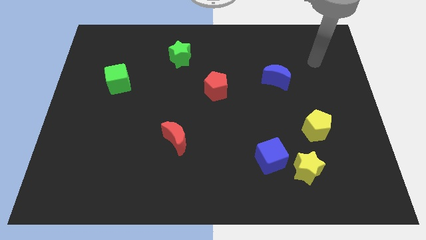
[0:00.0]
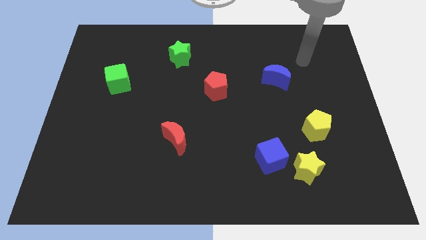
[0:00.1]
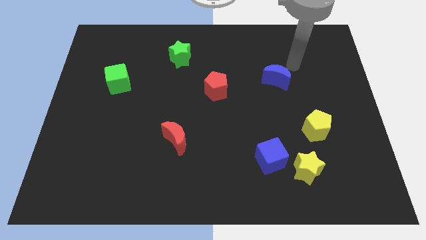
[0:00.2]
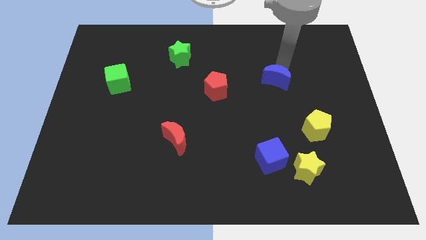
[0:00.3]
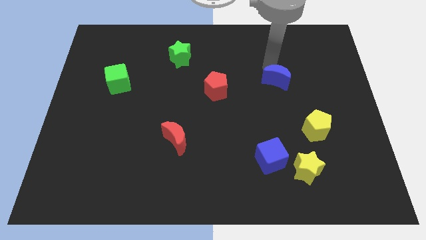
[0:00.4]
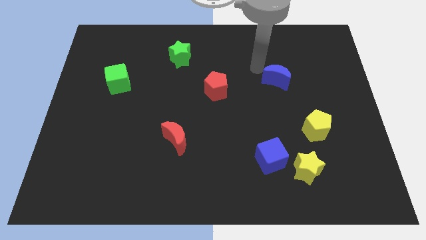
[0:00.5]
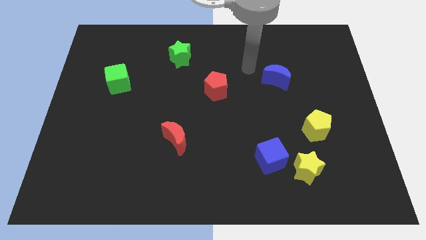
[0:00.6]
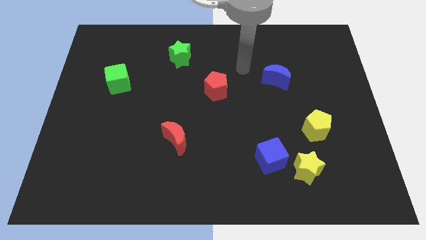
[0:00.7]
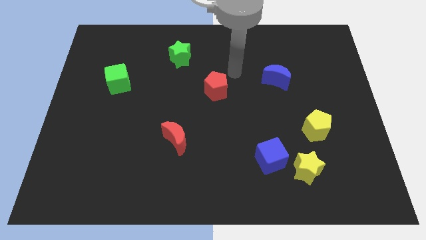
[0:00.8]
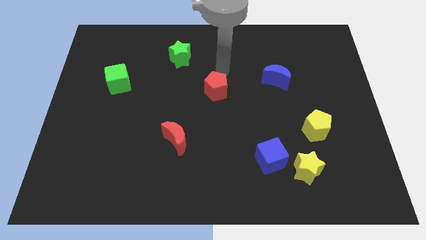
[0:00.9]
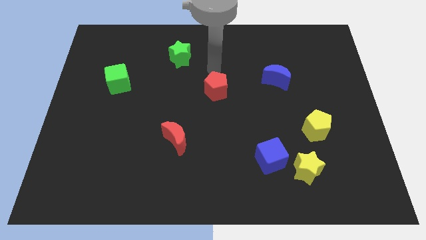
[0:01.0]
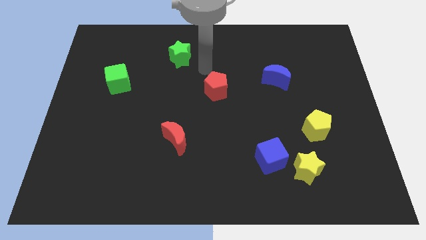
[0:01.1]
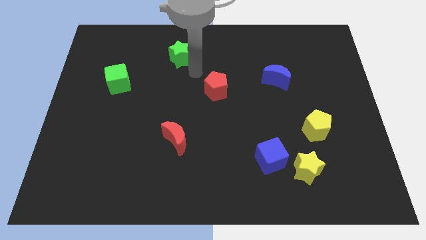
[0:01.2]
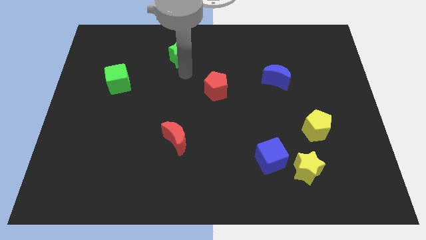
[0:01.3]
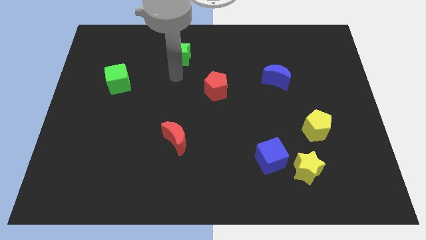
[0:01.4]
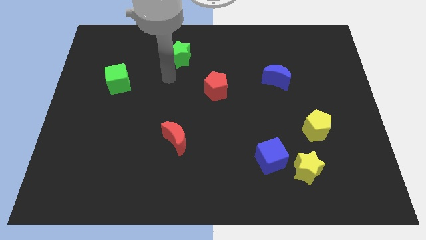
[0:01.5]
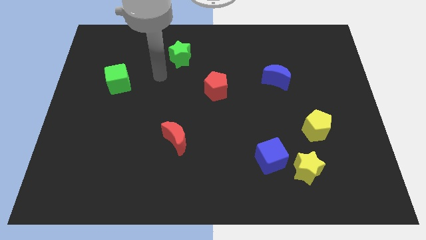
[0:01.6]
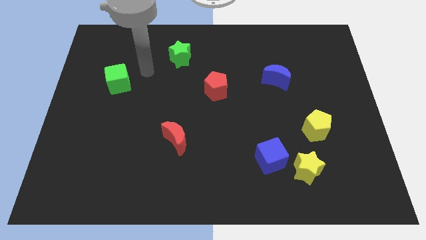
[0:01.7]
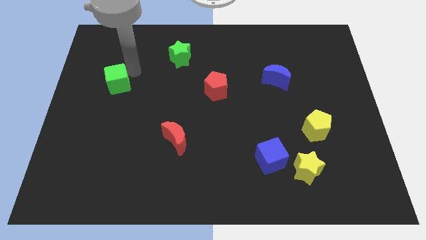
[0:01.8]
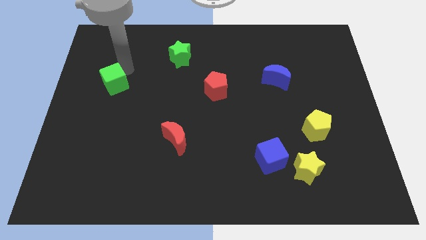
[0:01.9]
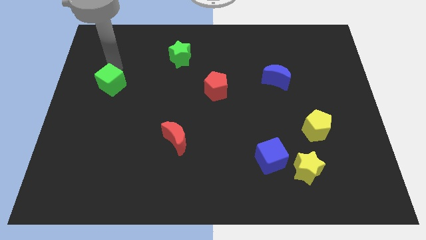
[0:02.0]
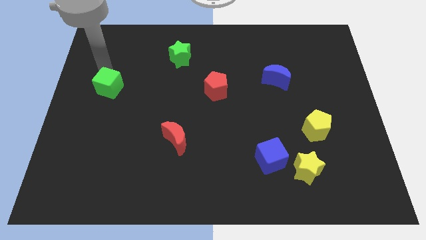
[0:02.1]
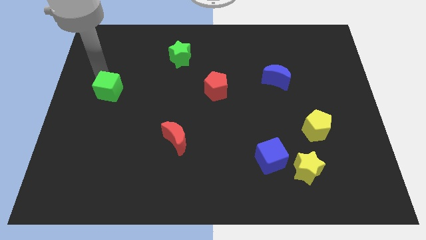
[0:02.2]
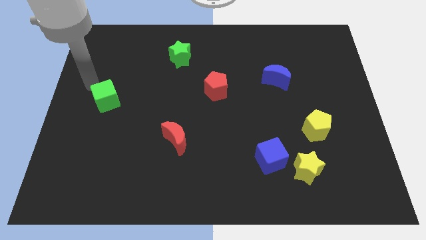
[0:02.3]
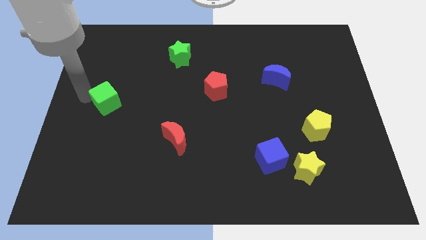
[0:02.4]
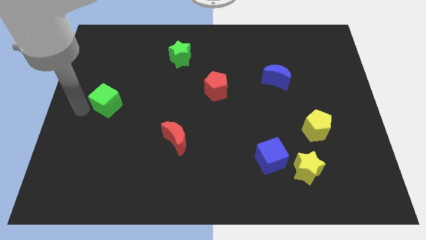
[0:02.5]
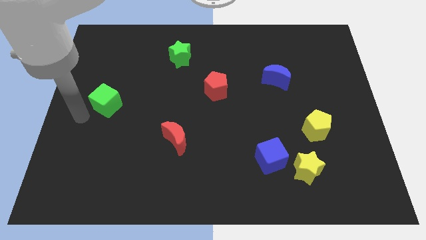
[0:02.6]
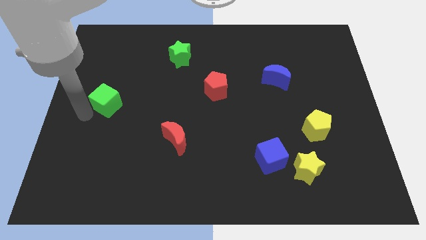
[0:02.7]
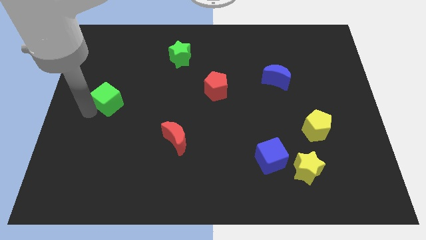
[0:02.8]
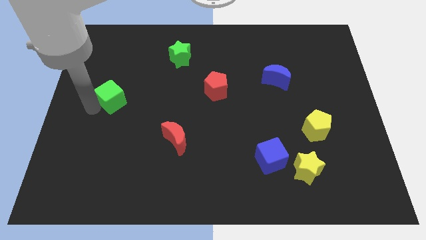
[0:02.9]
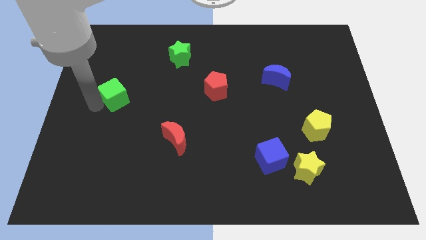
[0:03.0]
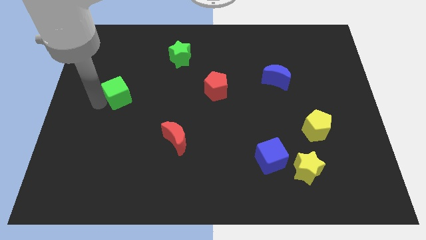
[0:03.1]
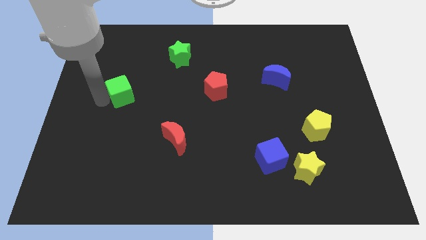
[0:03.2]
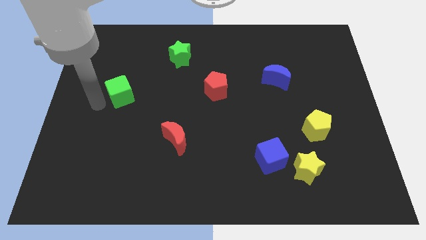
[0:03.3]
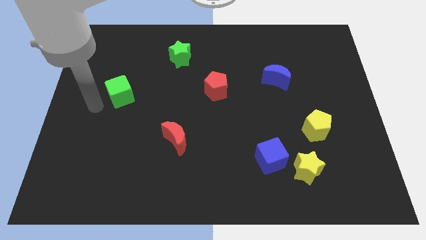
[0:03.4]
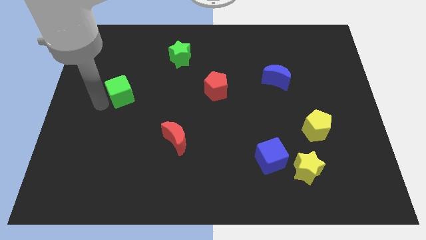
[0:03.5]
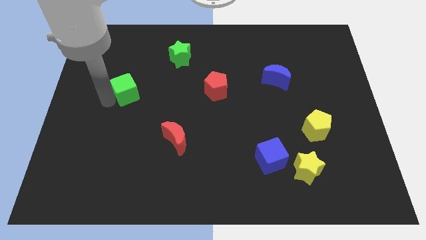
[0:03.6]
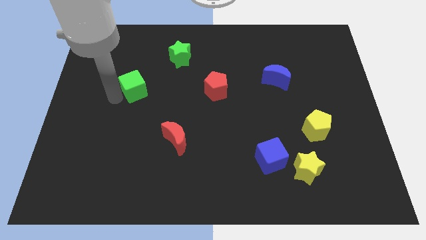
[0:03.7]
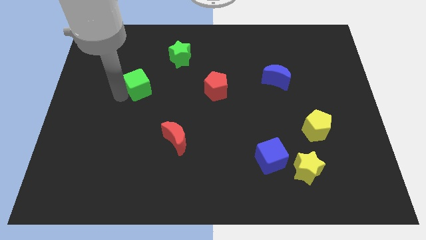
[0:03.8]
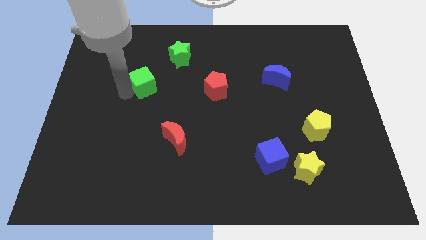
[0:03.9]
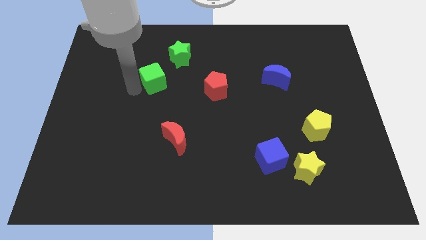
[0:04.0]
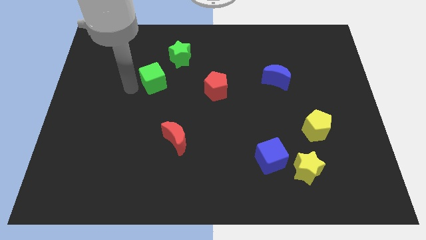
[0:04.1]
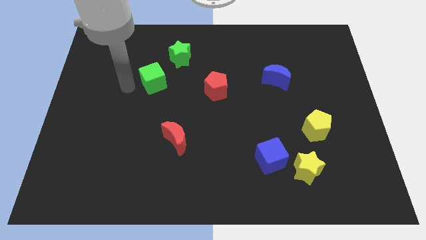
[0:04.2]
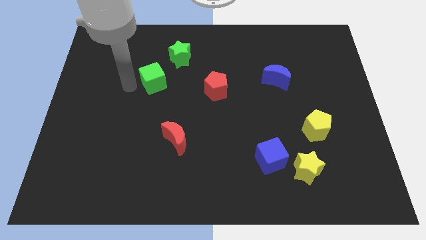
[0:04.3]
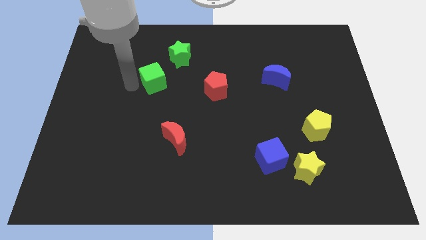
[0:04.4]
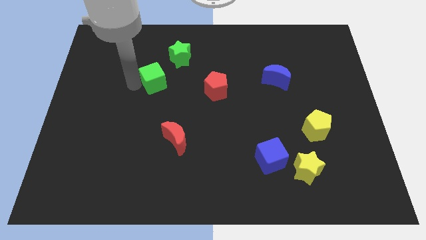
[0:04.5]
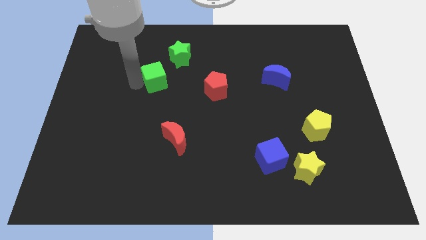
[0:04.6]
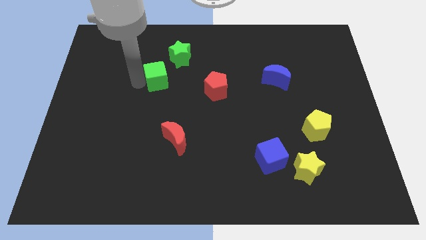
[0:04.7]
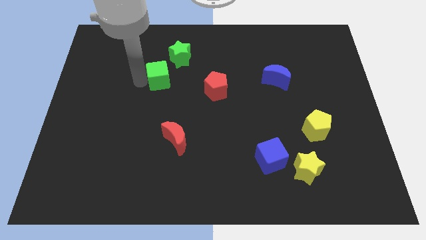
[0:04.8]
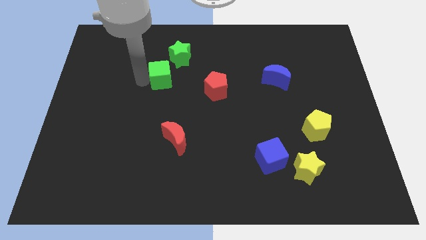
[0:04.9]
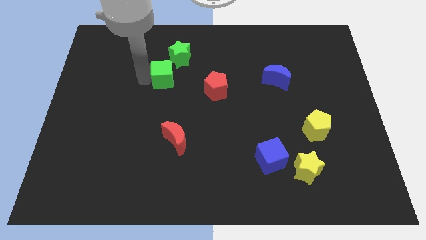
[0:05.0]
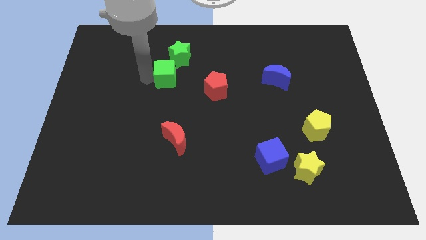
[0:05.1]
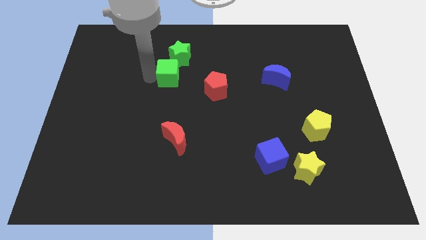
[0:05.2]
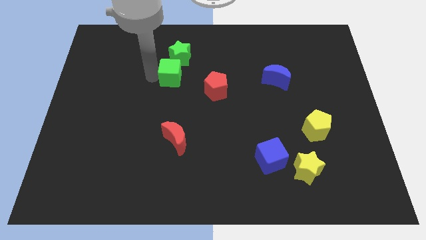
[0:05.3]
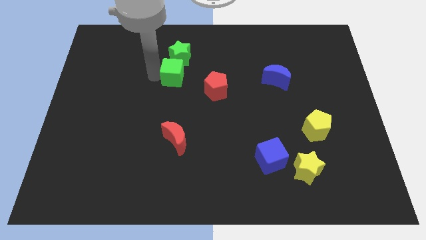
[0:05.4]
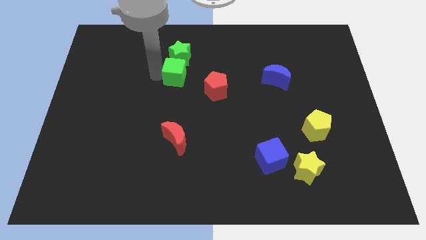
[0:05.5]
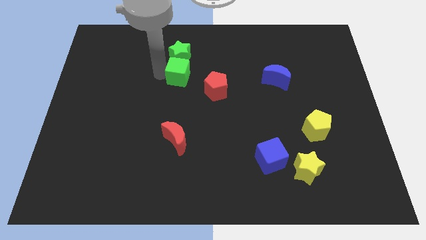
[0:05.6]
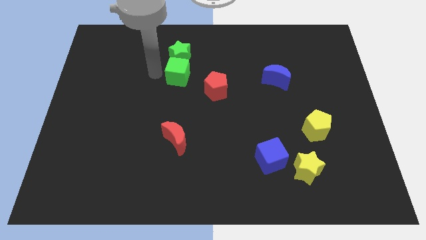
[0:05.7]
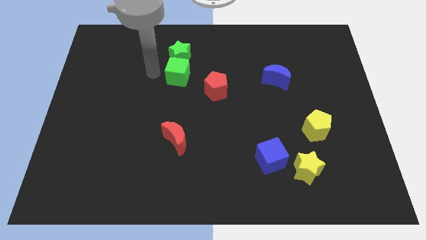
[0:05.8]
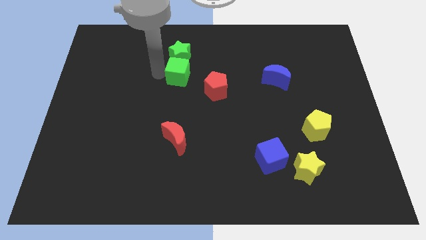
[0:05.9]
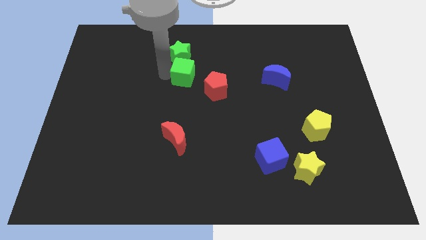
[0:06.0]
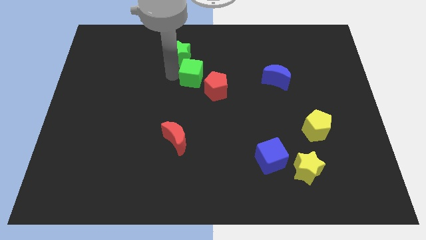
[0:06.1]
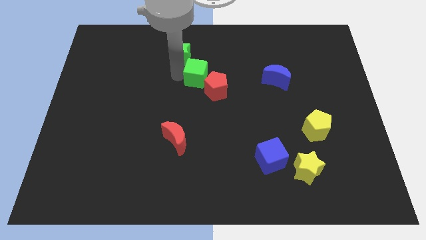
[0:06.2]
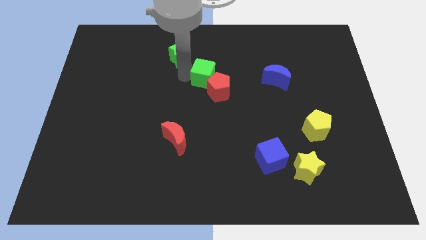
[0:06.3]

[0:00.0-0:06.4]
slide the green cube right

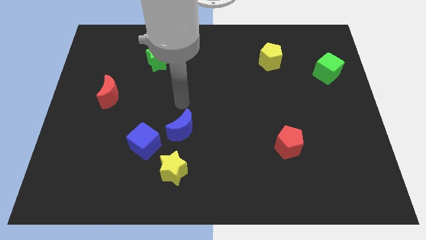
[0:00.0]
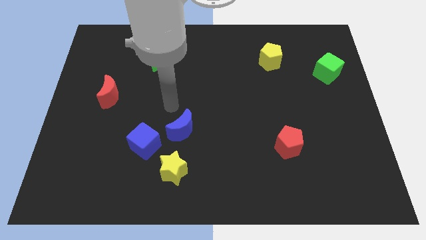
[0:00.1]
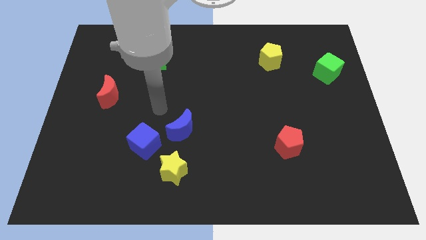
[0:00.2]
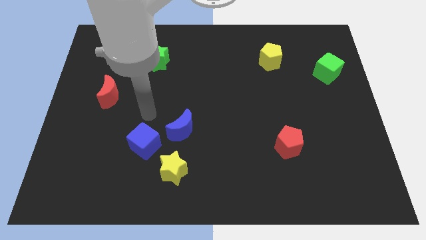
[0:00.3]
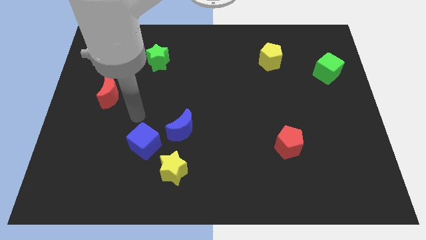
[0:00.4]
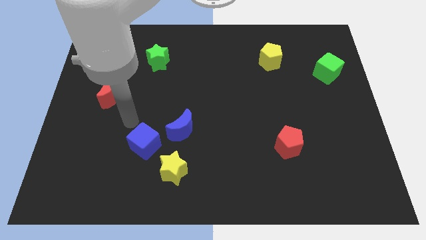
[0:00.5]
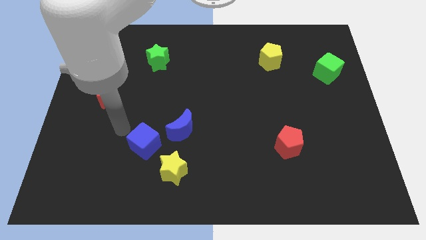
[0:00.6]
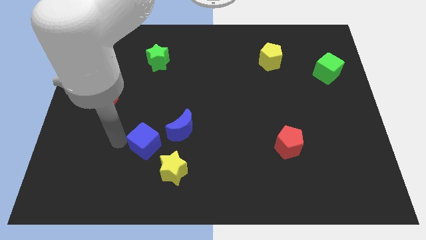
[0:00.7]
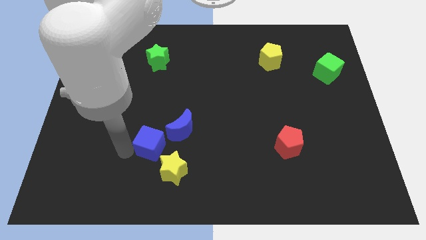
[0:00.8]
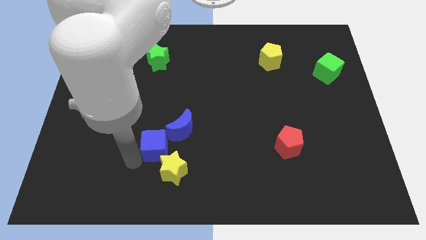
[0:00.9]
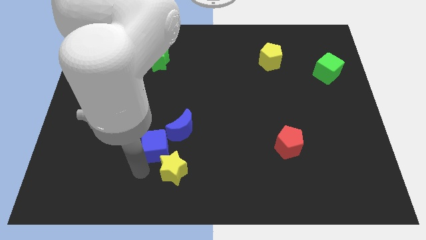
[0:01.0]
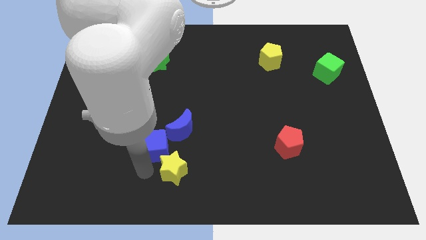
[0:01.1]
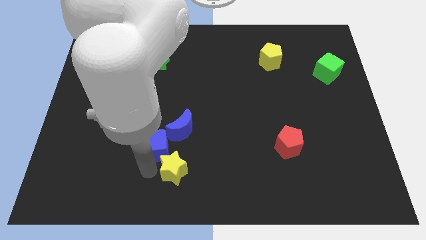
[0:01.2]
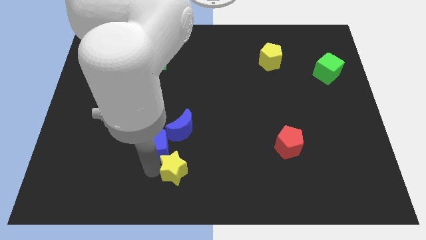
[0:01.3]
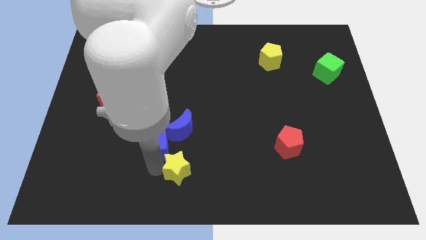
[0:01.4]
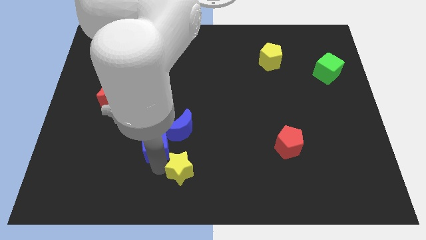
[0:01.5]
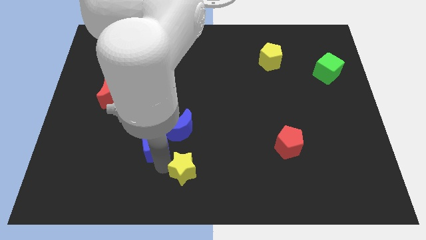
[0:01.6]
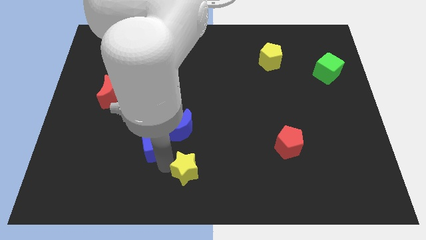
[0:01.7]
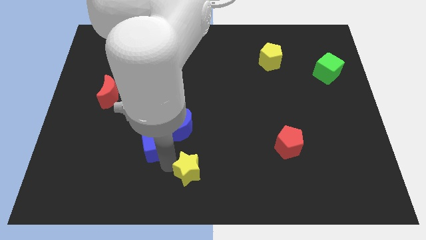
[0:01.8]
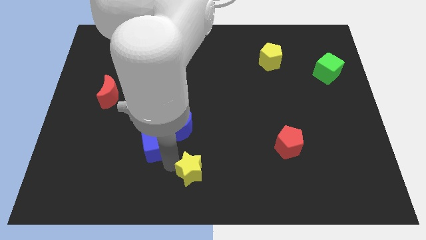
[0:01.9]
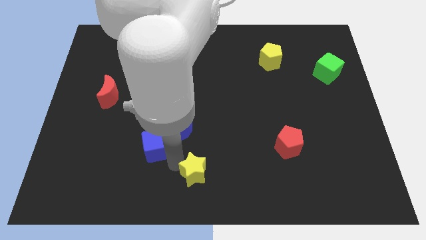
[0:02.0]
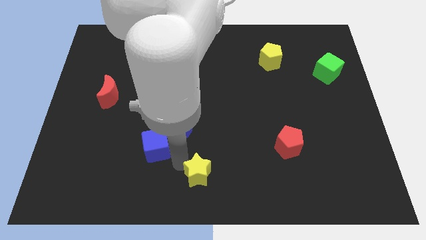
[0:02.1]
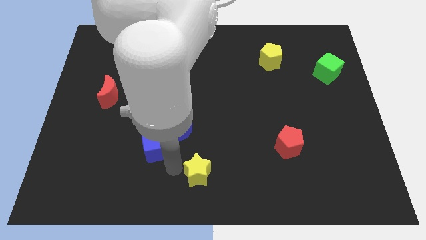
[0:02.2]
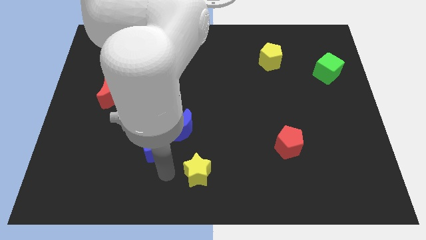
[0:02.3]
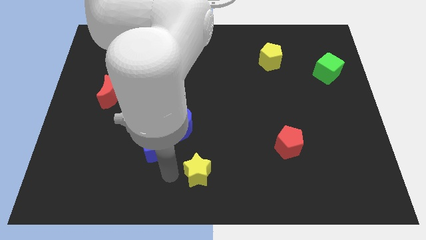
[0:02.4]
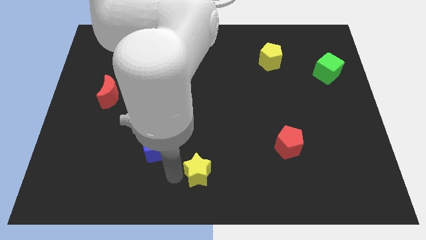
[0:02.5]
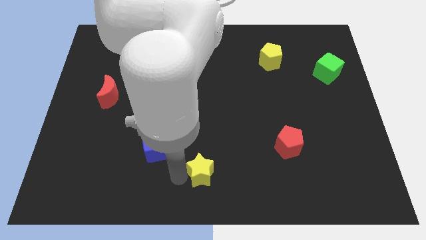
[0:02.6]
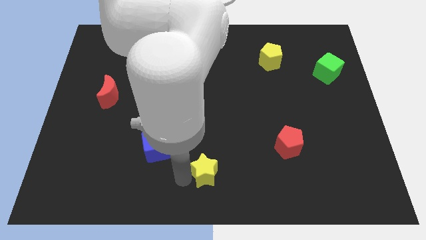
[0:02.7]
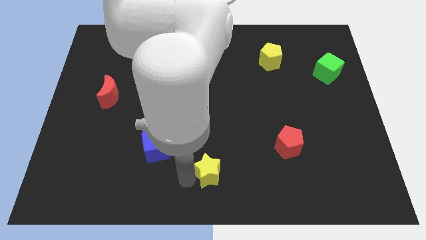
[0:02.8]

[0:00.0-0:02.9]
move the yellow star a bit to the right
